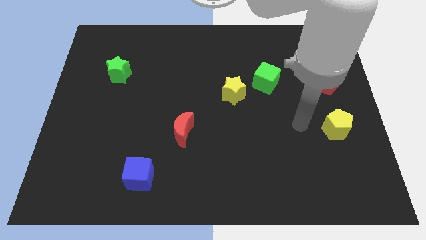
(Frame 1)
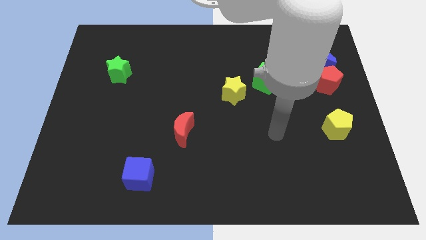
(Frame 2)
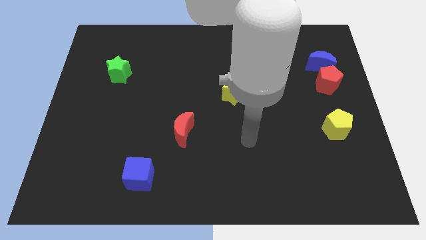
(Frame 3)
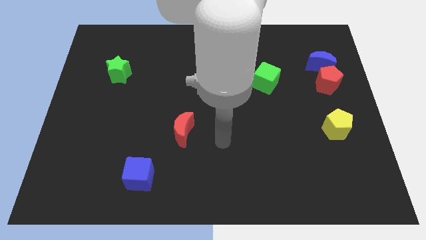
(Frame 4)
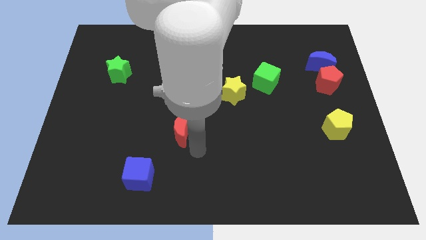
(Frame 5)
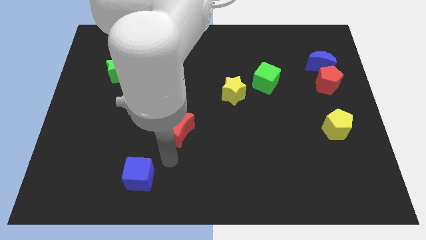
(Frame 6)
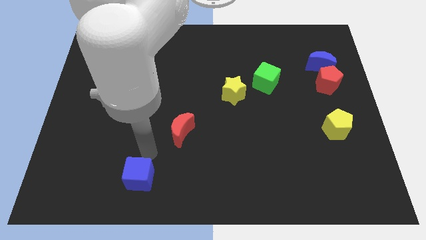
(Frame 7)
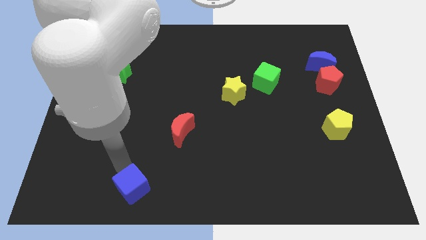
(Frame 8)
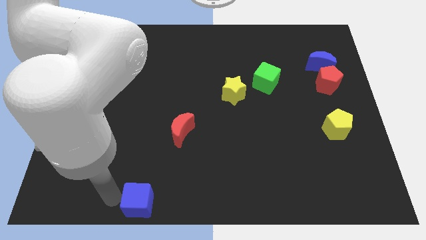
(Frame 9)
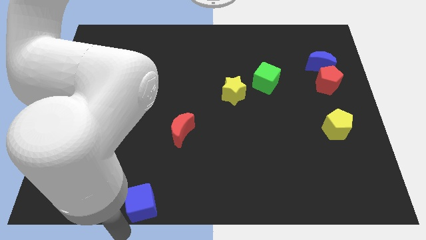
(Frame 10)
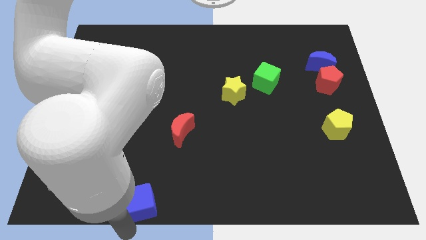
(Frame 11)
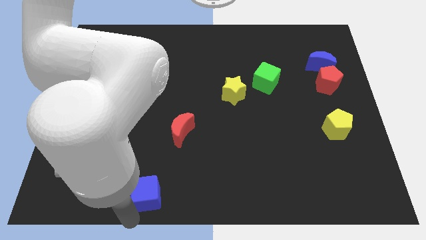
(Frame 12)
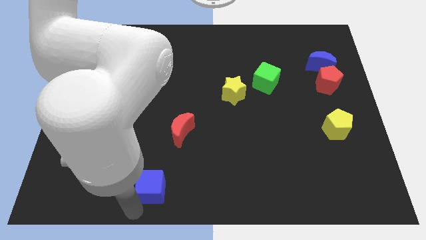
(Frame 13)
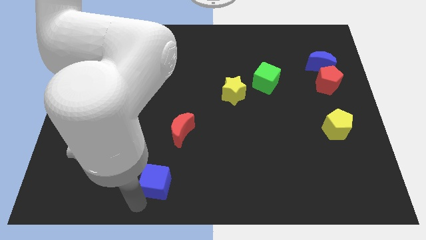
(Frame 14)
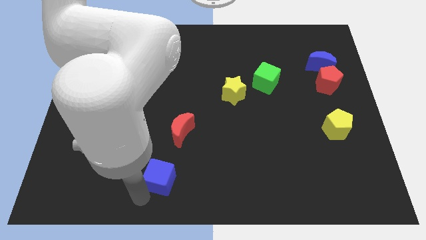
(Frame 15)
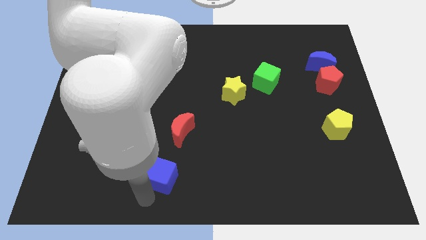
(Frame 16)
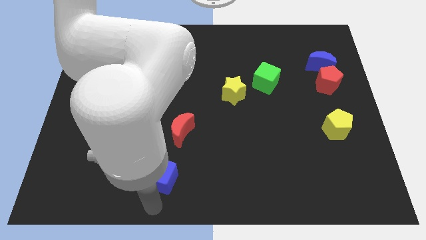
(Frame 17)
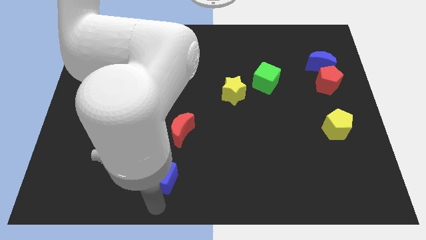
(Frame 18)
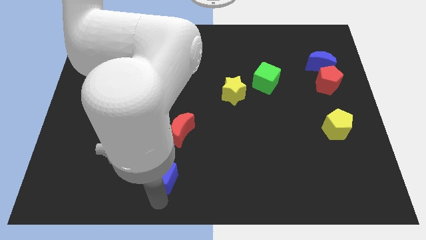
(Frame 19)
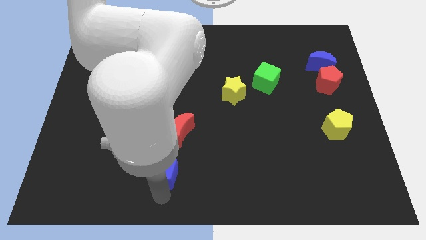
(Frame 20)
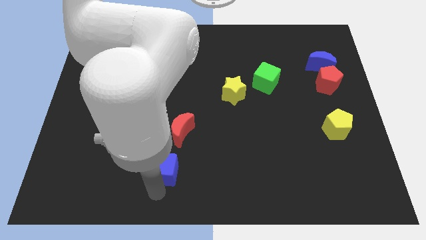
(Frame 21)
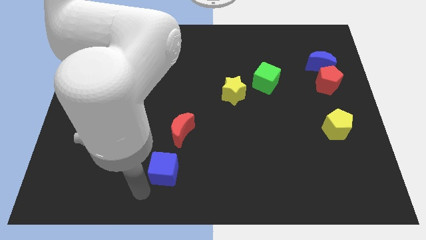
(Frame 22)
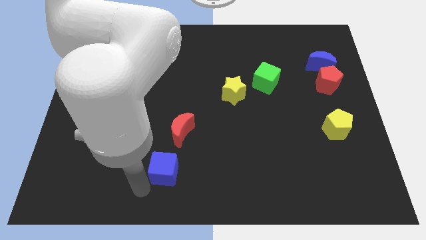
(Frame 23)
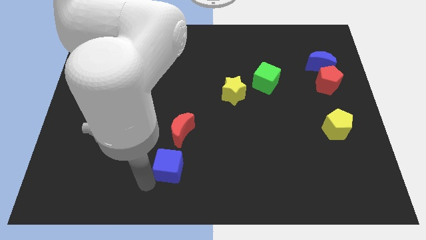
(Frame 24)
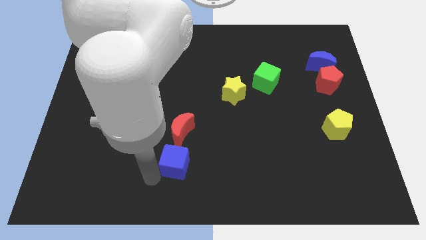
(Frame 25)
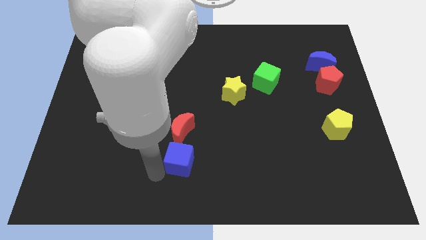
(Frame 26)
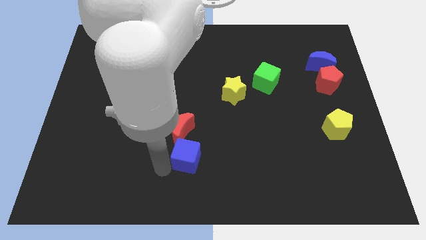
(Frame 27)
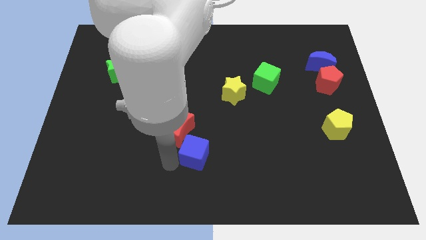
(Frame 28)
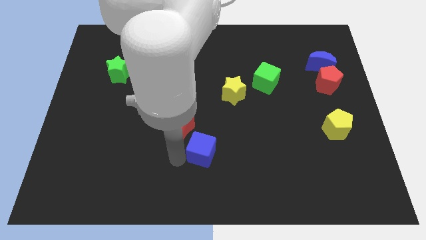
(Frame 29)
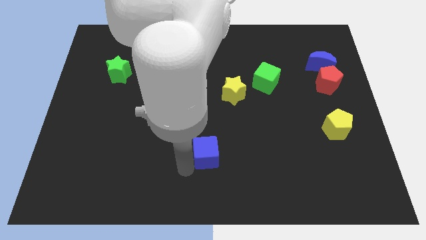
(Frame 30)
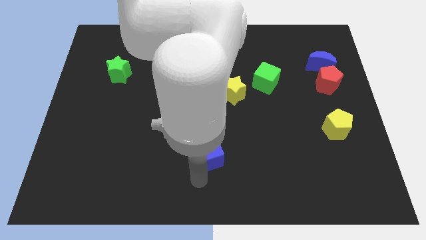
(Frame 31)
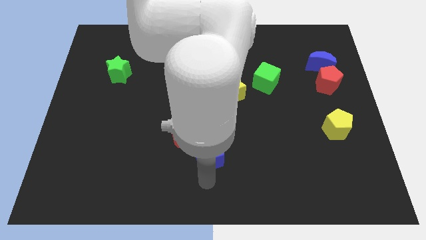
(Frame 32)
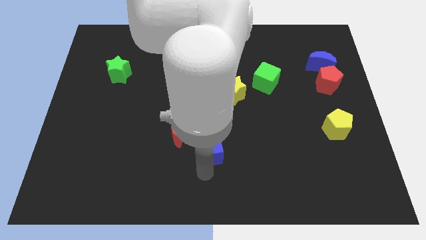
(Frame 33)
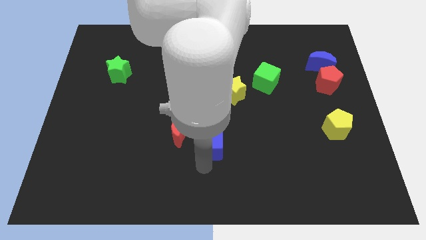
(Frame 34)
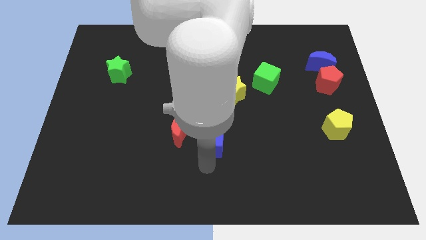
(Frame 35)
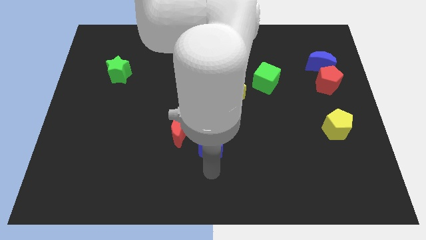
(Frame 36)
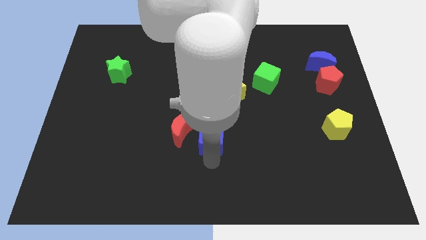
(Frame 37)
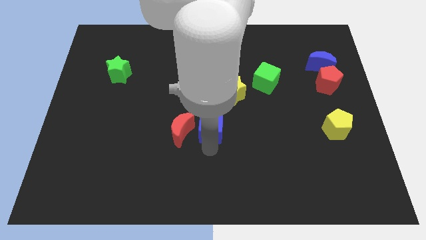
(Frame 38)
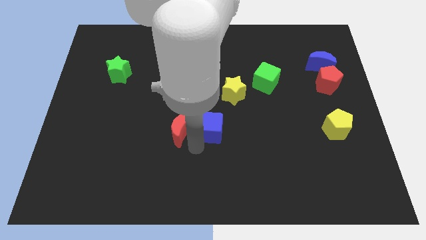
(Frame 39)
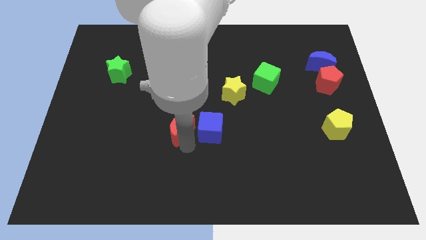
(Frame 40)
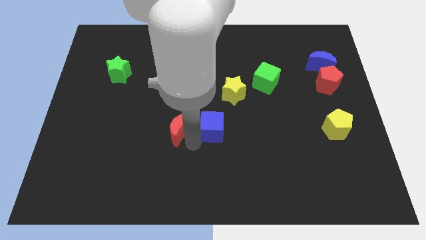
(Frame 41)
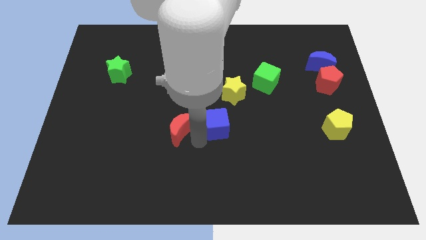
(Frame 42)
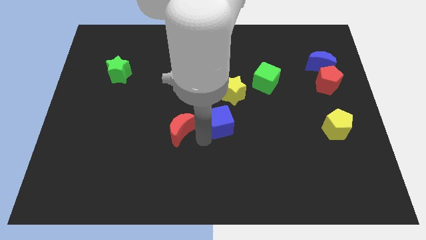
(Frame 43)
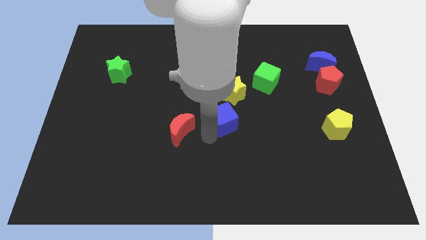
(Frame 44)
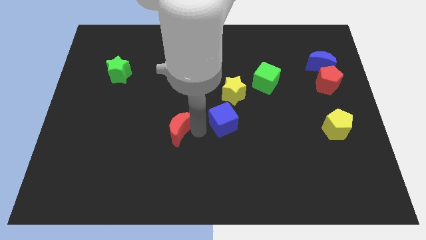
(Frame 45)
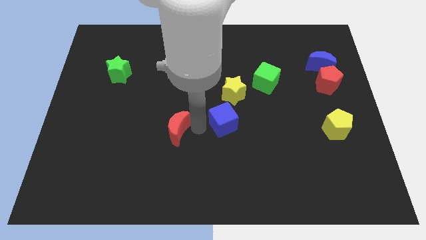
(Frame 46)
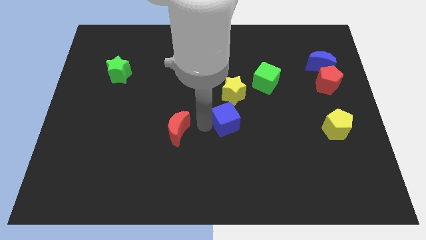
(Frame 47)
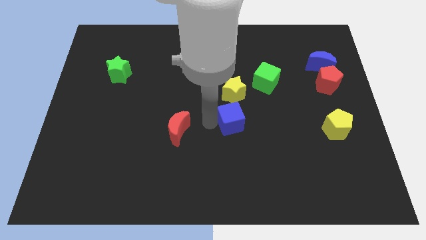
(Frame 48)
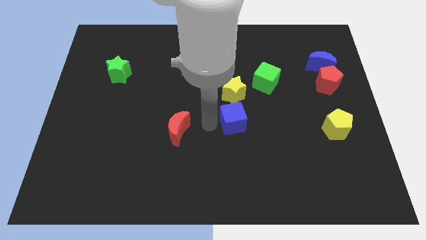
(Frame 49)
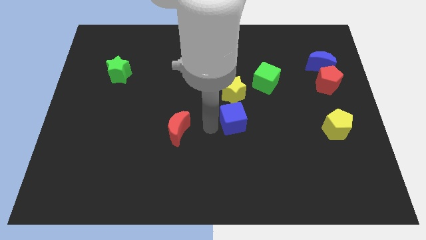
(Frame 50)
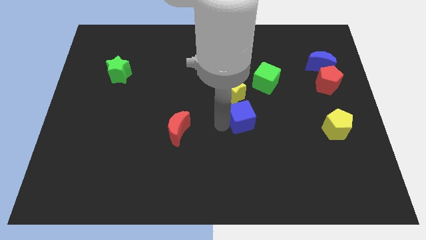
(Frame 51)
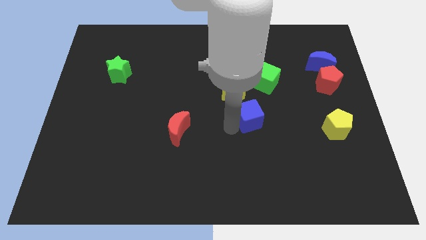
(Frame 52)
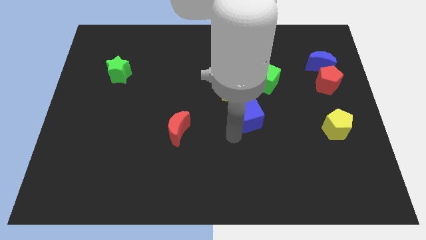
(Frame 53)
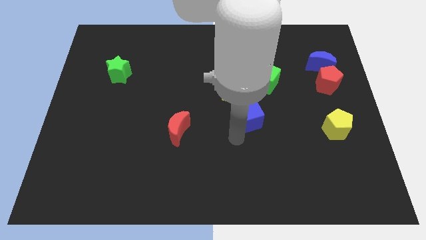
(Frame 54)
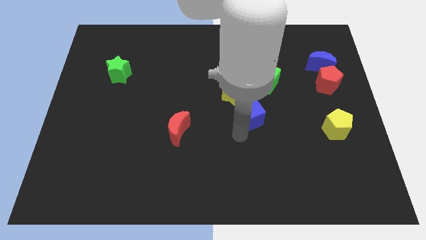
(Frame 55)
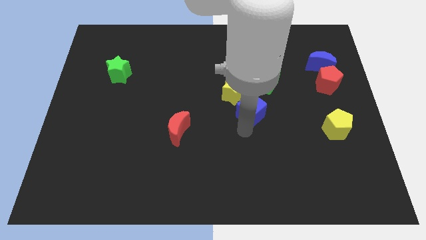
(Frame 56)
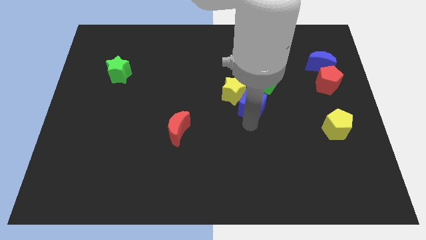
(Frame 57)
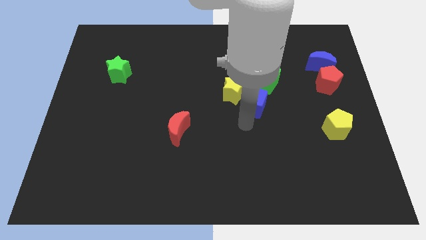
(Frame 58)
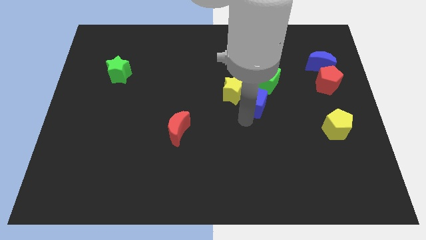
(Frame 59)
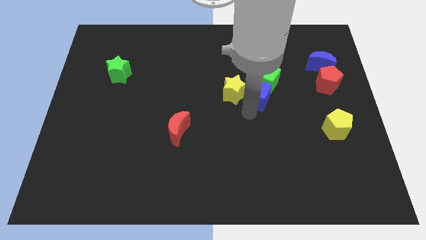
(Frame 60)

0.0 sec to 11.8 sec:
move the blue cube next to the green cube
